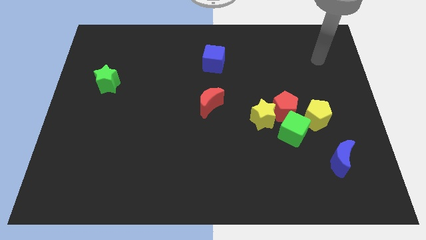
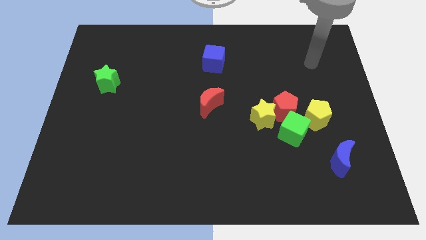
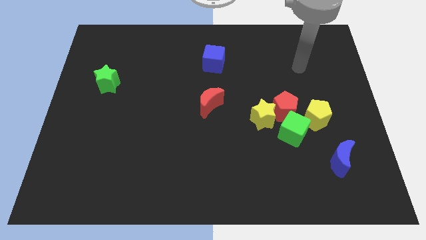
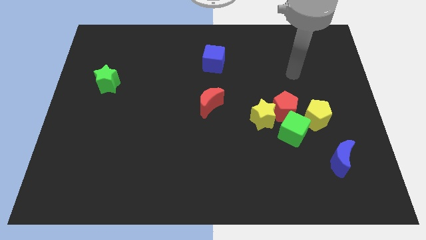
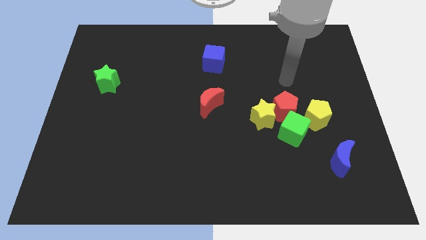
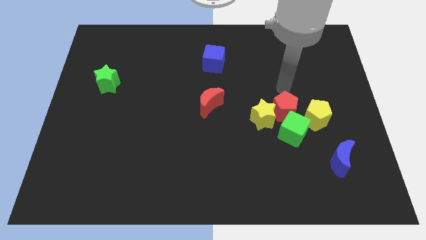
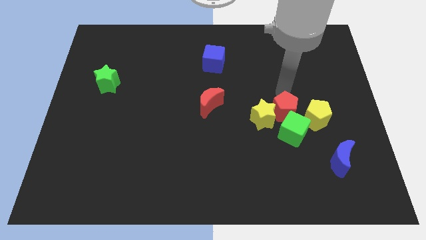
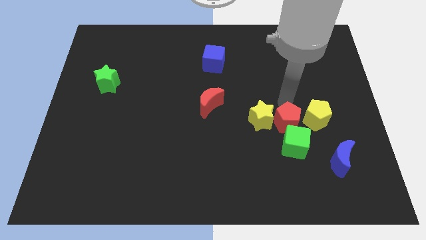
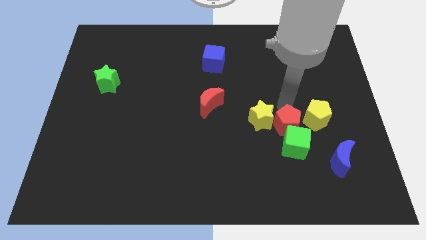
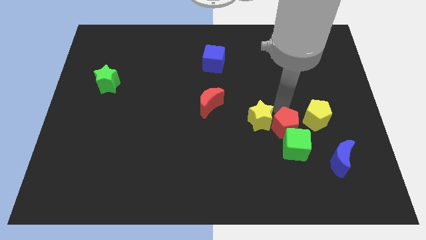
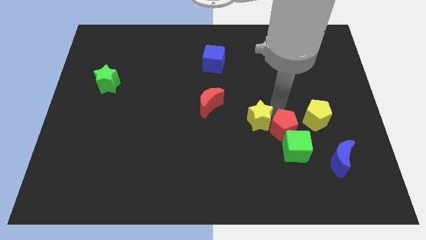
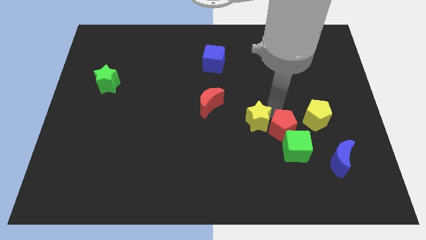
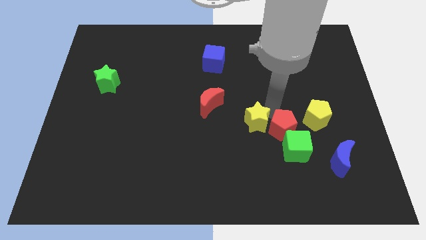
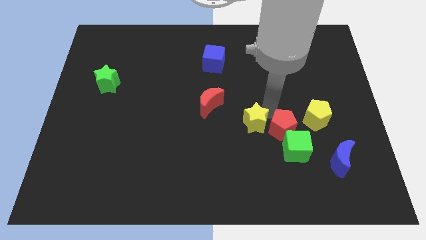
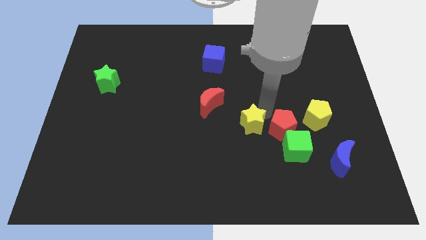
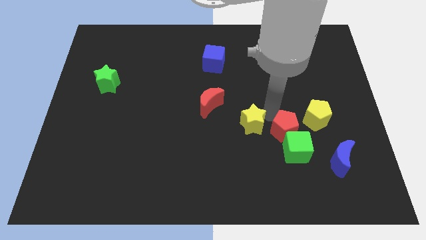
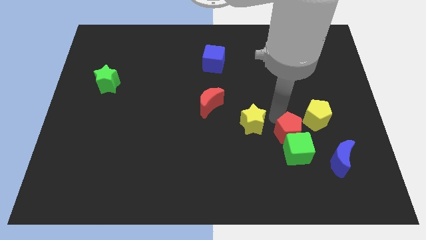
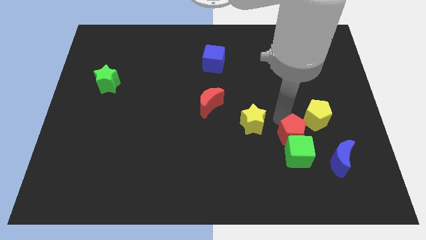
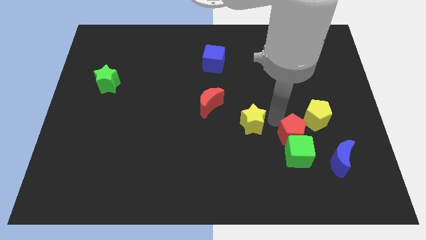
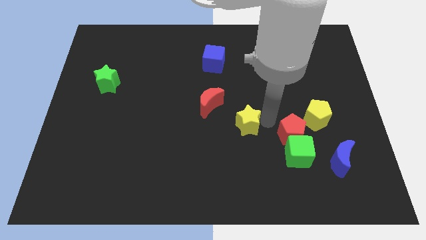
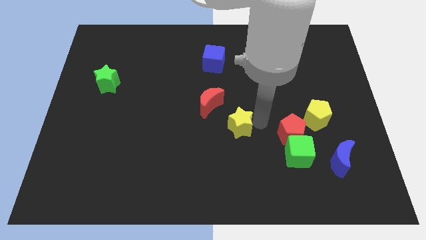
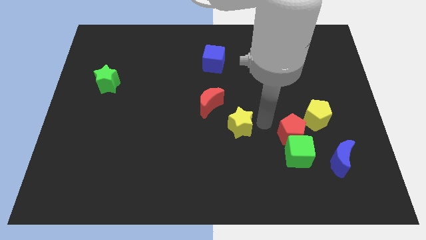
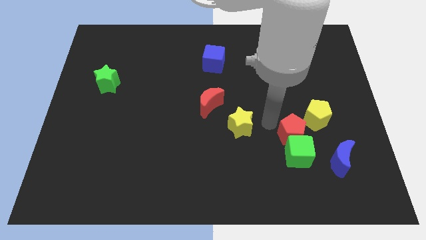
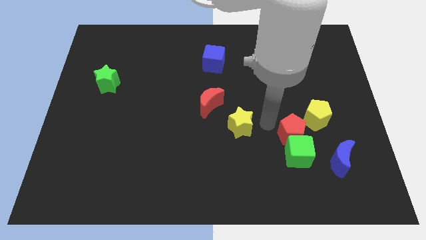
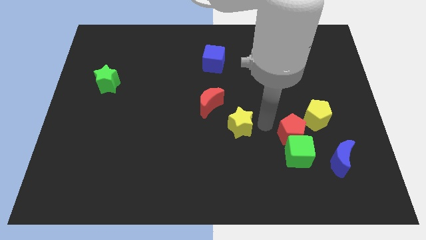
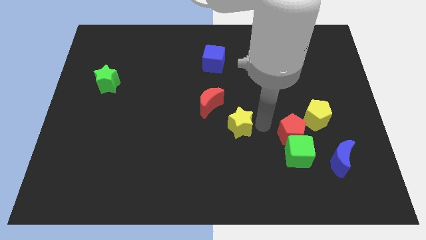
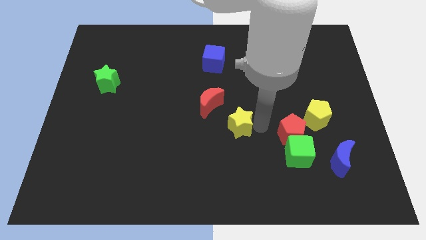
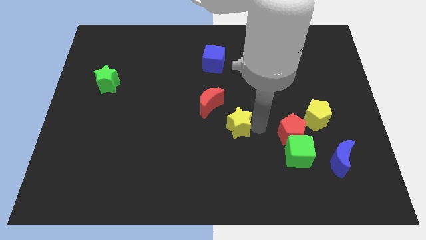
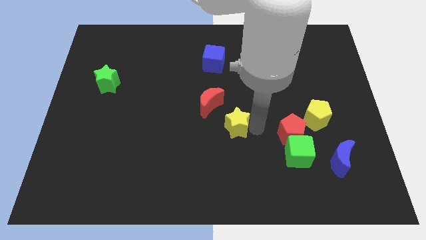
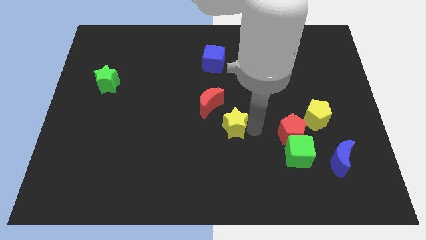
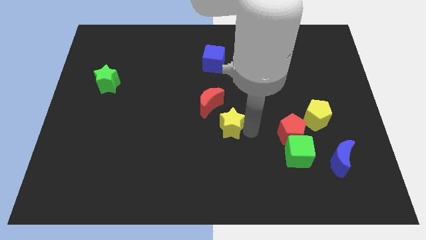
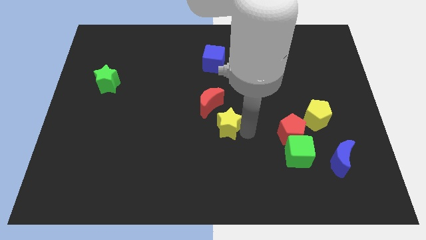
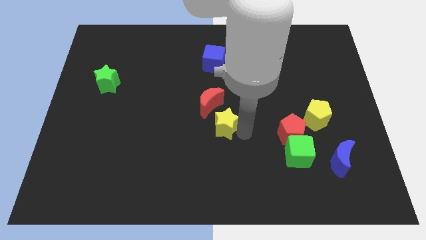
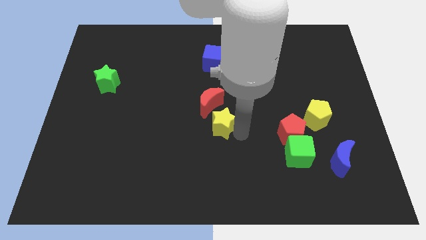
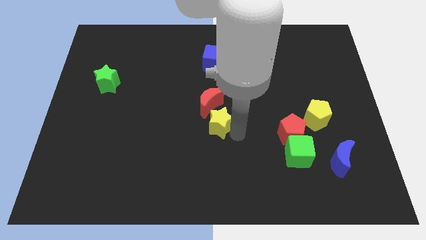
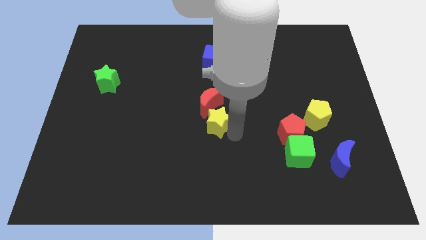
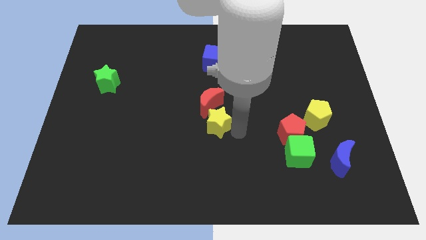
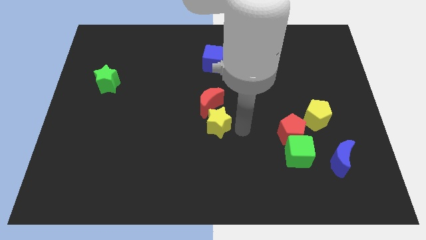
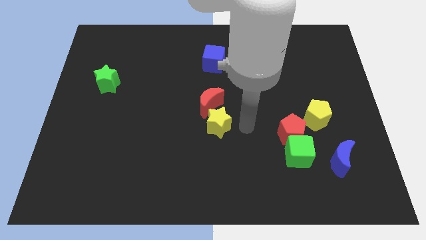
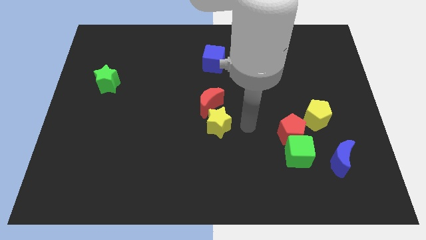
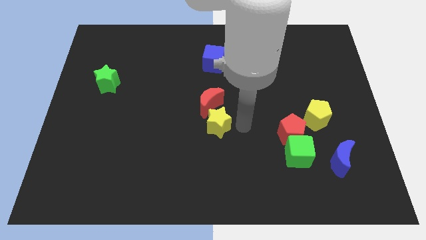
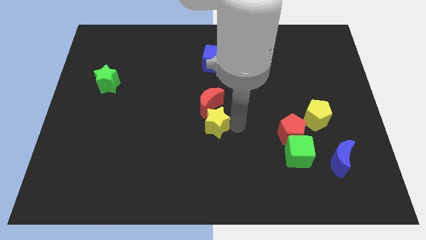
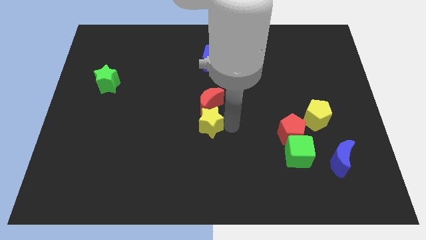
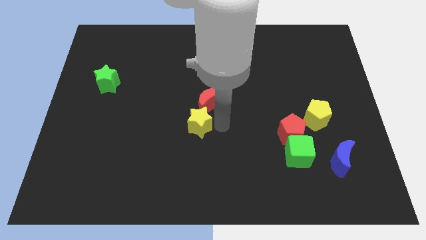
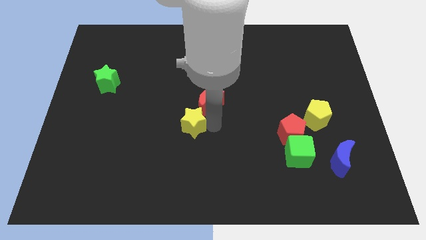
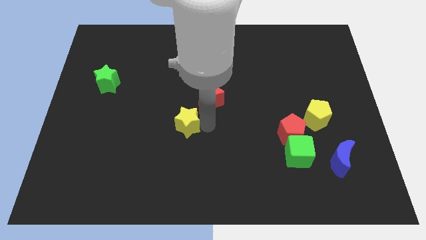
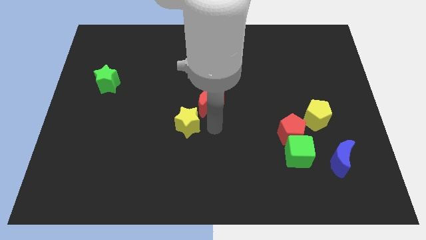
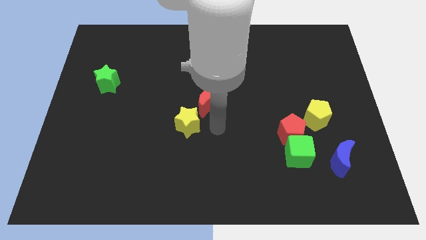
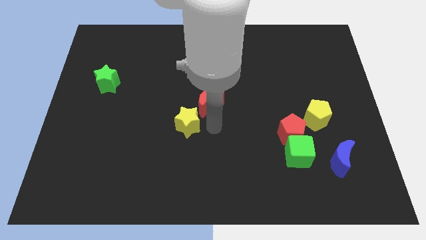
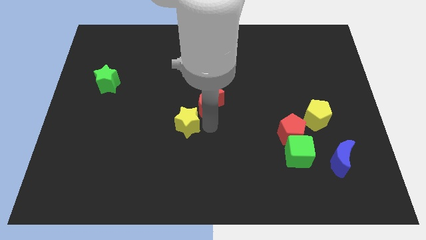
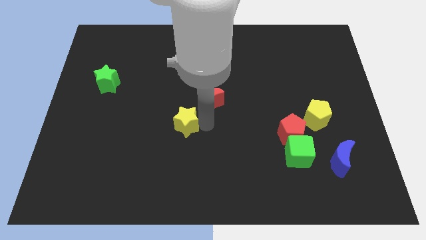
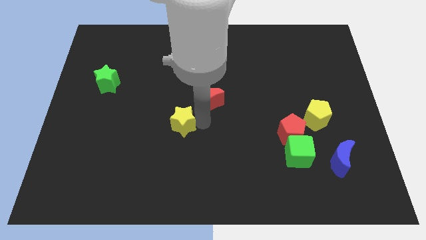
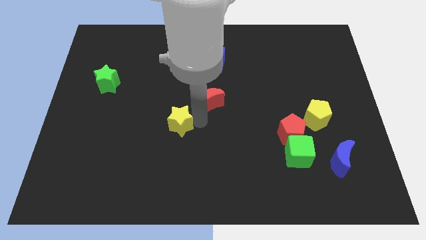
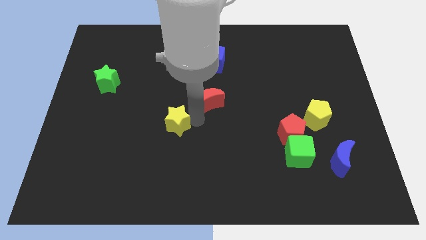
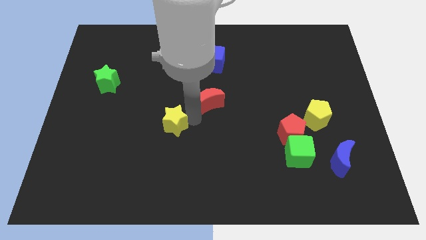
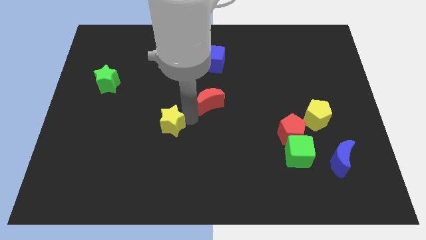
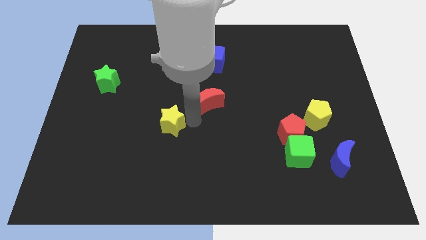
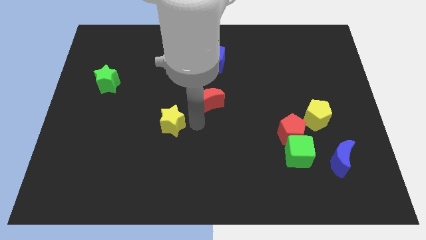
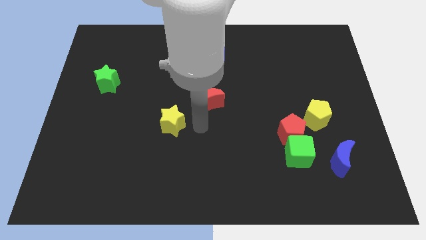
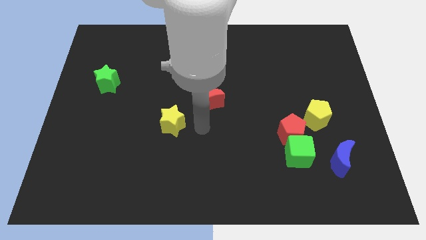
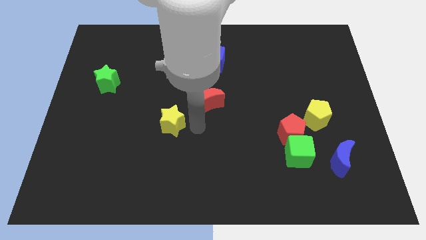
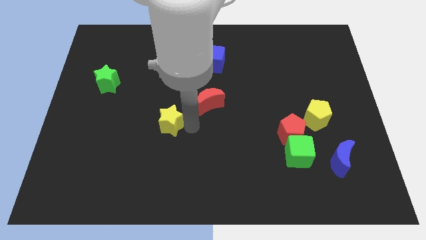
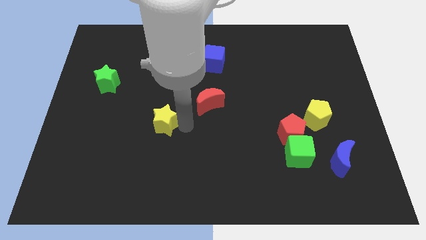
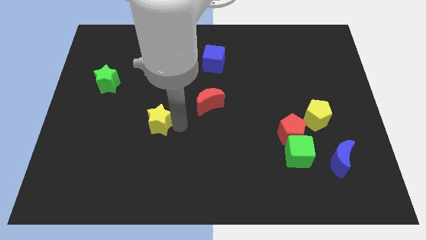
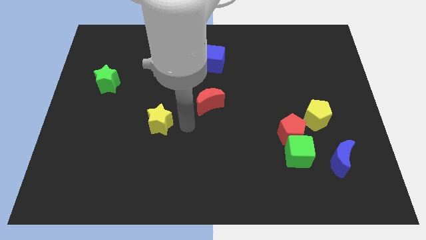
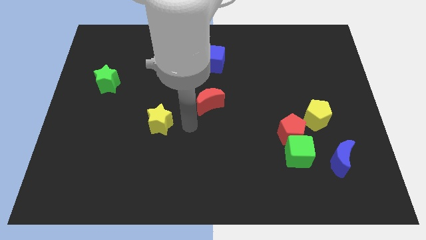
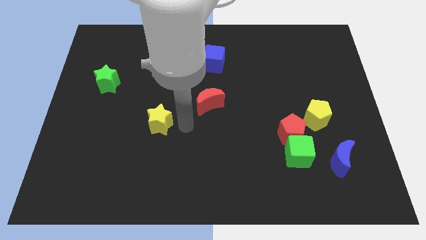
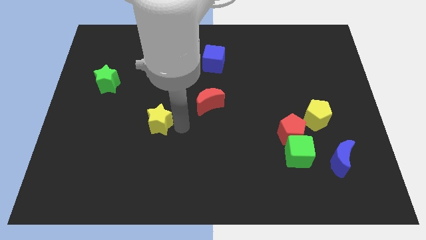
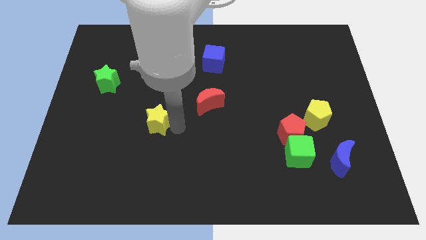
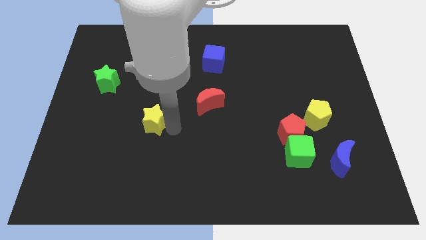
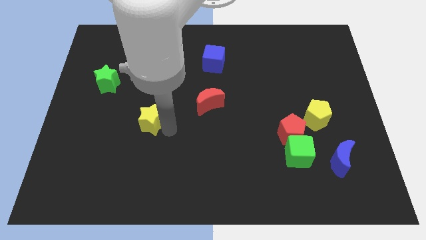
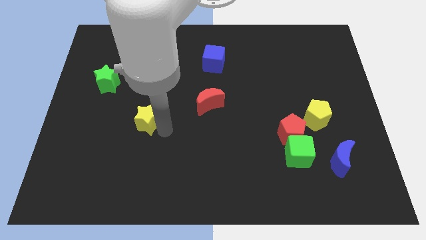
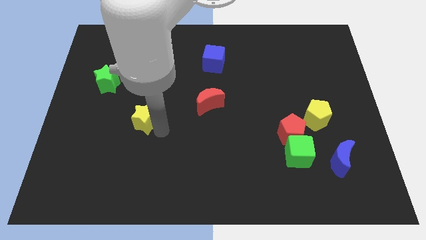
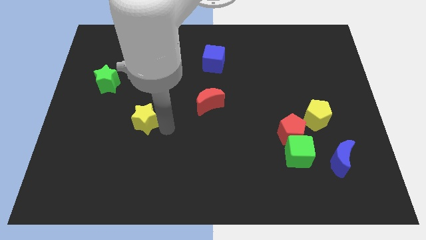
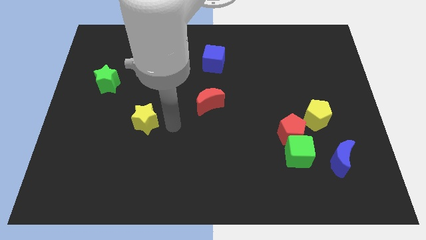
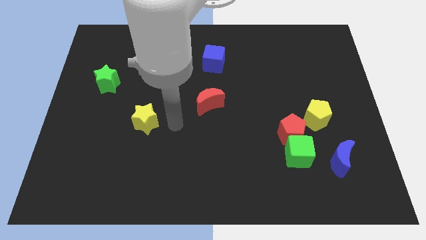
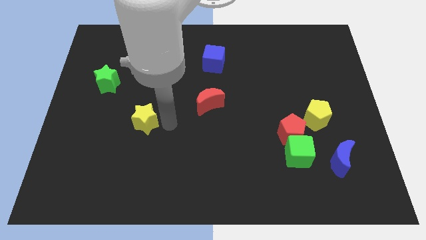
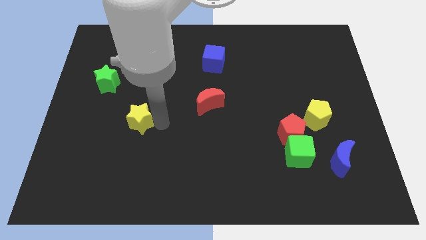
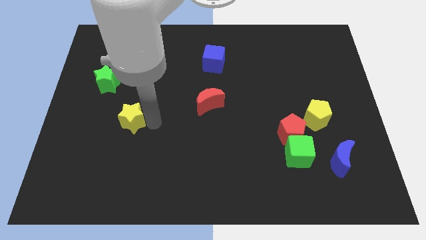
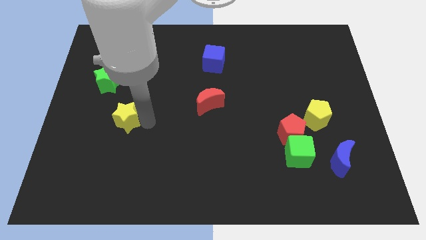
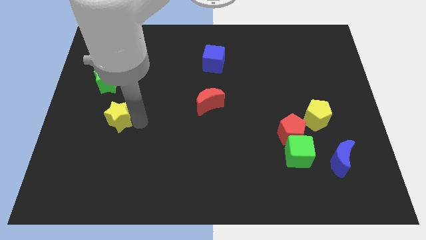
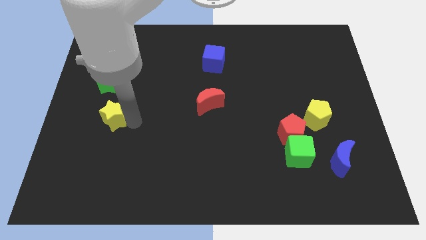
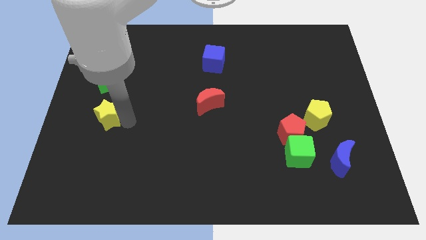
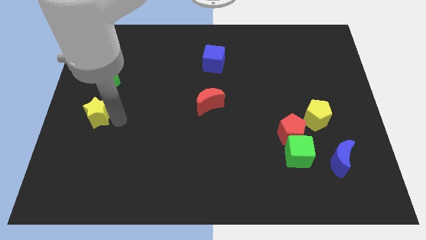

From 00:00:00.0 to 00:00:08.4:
slide the yellow star to the left side
